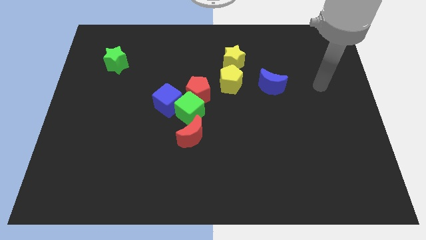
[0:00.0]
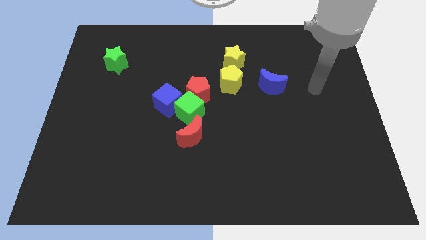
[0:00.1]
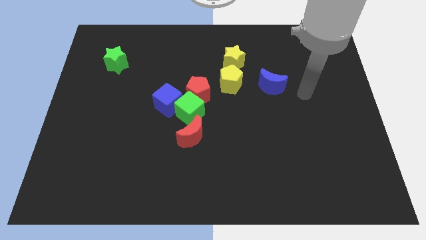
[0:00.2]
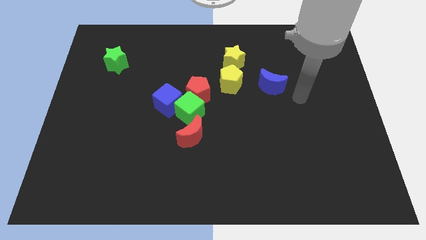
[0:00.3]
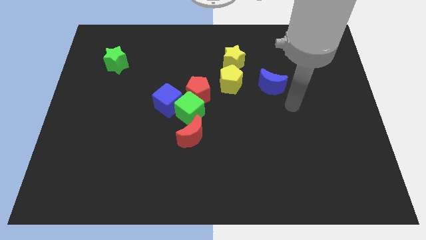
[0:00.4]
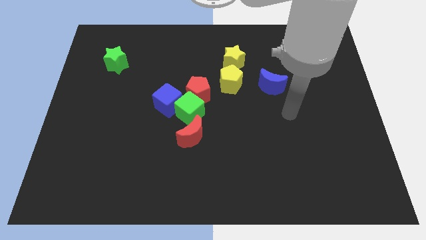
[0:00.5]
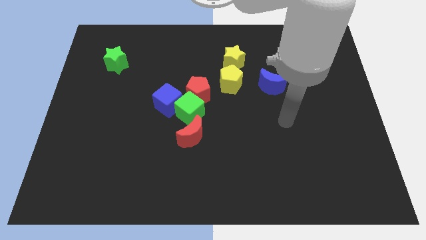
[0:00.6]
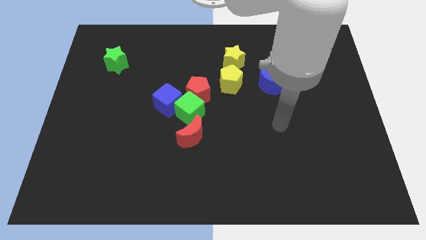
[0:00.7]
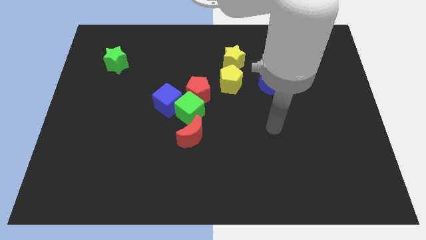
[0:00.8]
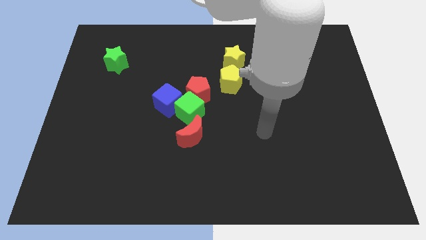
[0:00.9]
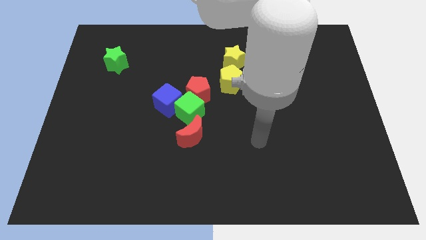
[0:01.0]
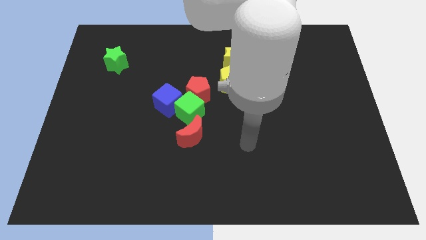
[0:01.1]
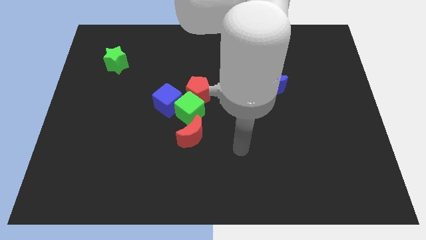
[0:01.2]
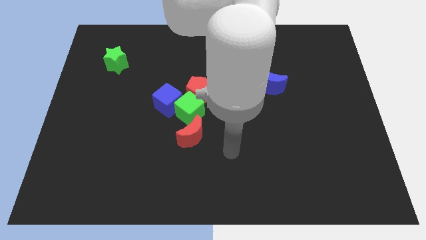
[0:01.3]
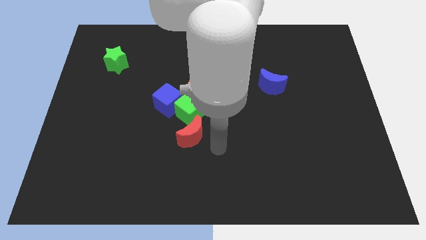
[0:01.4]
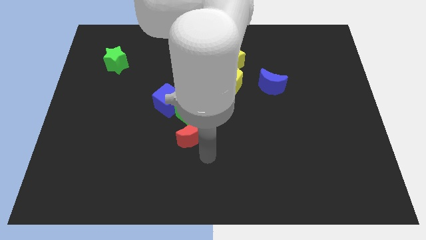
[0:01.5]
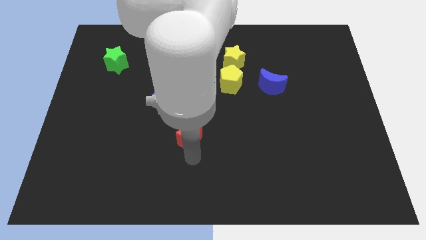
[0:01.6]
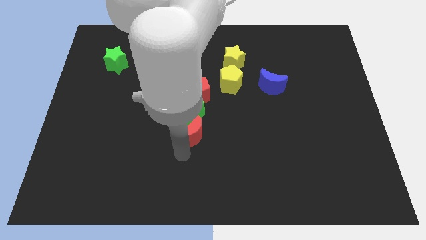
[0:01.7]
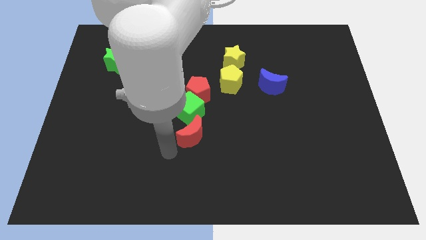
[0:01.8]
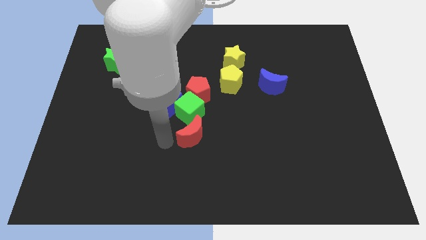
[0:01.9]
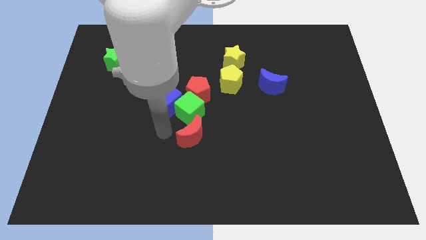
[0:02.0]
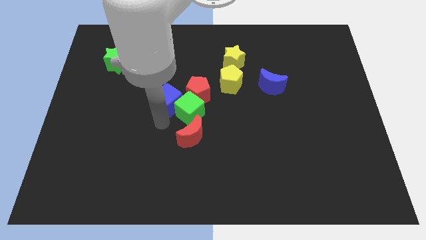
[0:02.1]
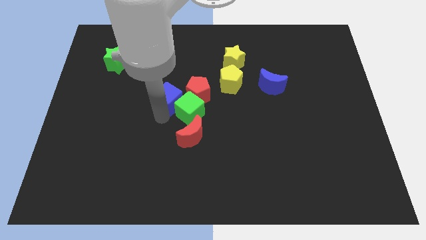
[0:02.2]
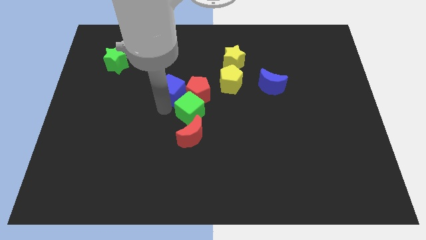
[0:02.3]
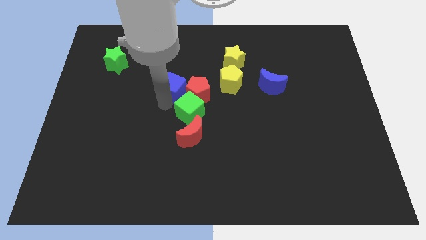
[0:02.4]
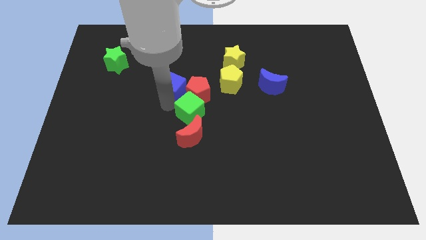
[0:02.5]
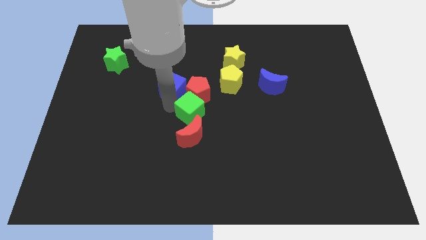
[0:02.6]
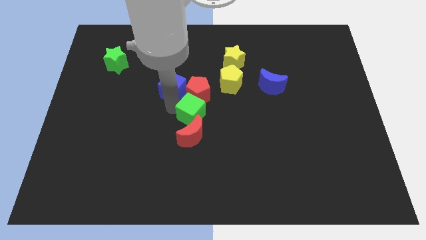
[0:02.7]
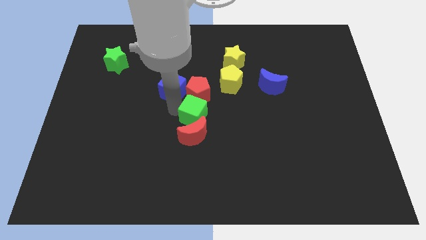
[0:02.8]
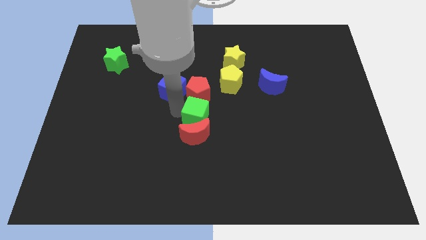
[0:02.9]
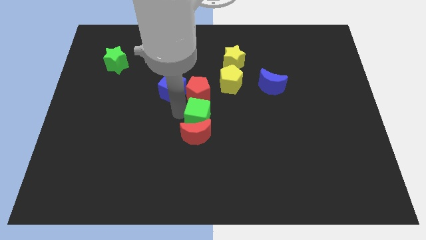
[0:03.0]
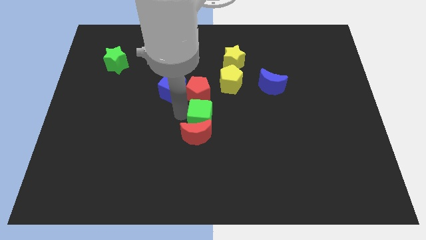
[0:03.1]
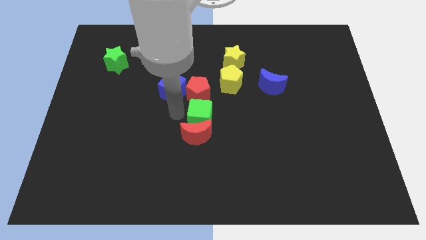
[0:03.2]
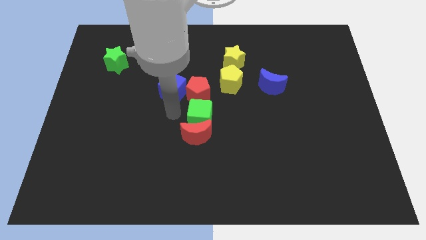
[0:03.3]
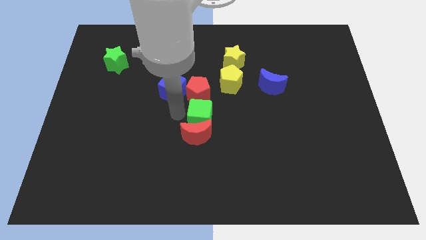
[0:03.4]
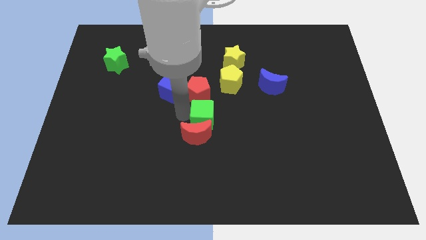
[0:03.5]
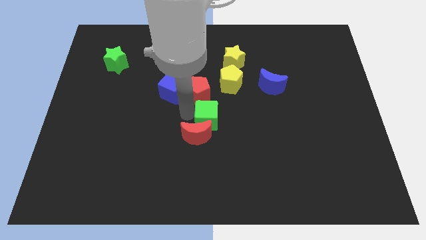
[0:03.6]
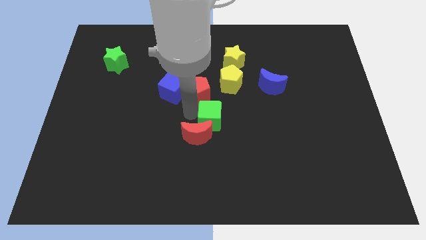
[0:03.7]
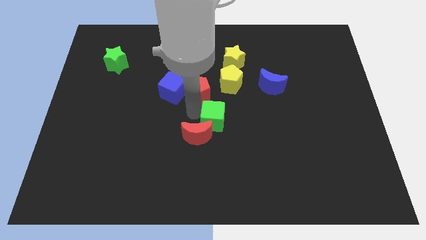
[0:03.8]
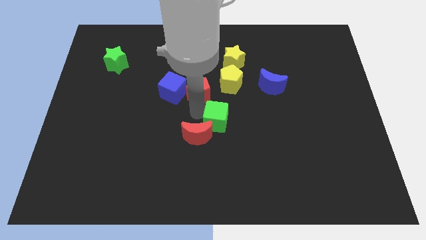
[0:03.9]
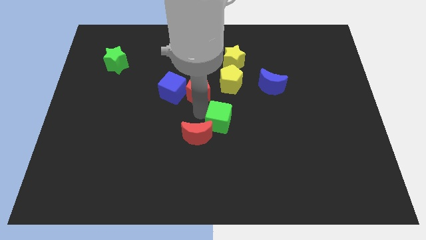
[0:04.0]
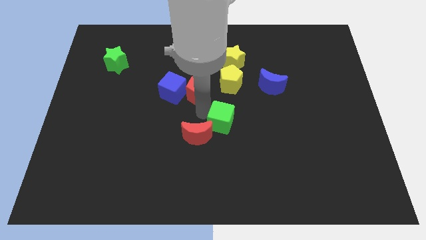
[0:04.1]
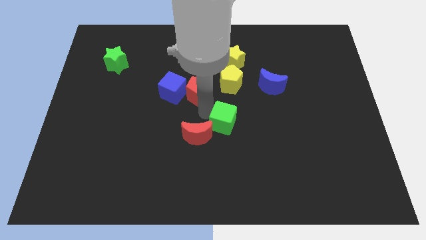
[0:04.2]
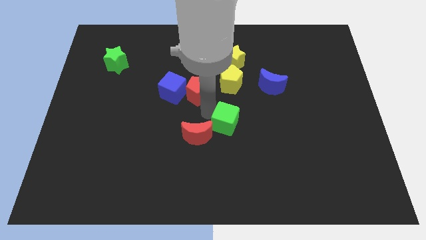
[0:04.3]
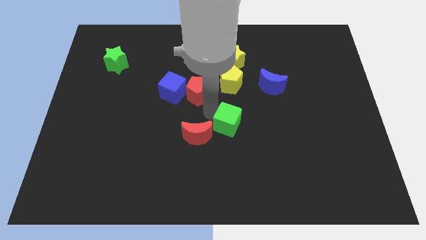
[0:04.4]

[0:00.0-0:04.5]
pull the green cube apart from the group

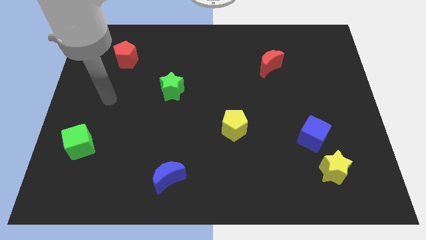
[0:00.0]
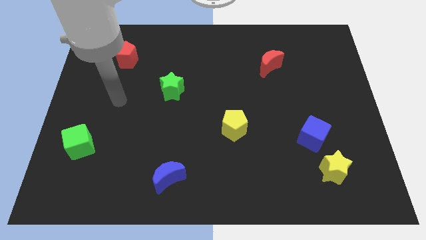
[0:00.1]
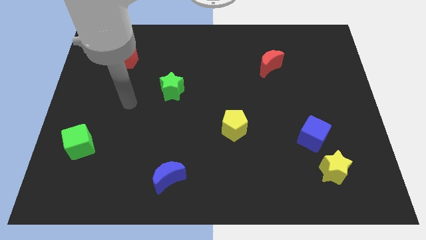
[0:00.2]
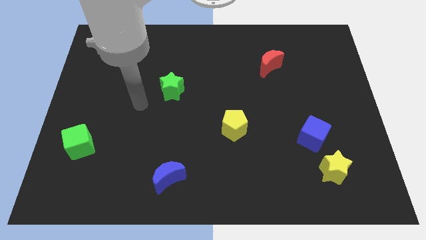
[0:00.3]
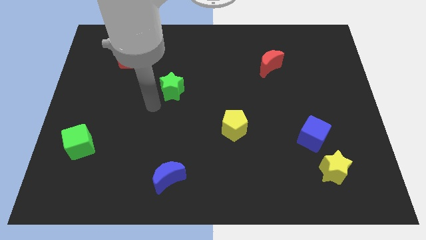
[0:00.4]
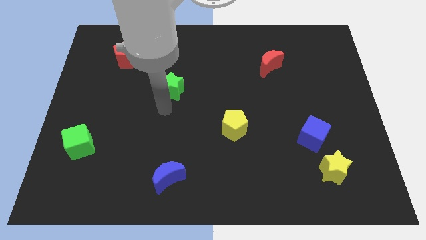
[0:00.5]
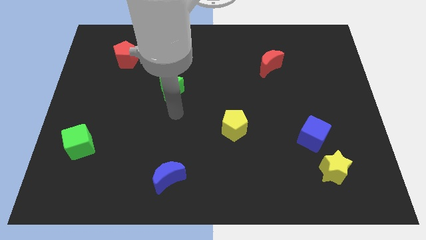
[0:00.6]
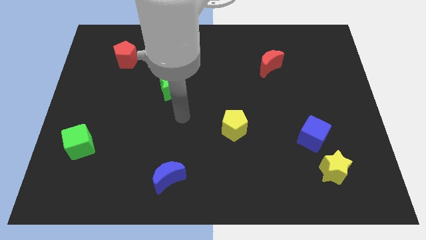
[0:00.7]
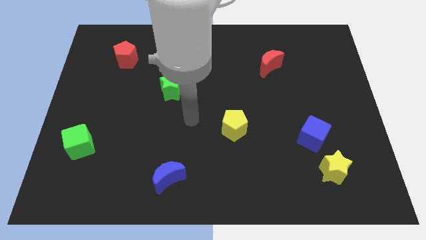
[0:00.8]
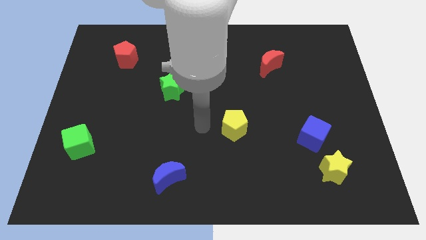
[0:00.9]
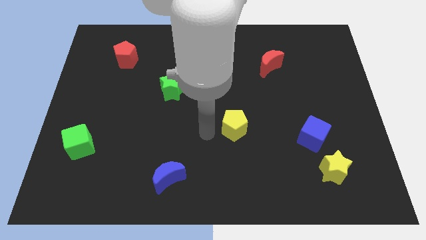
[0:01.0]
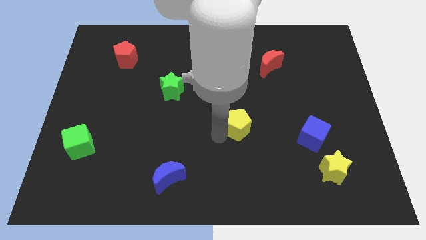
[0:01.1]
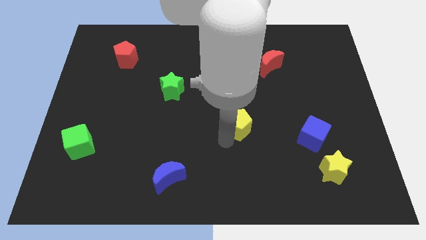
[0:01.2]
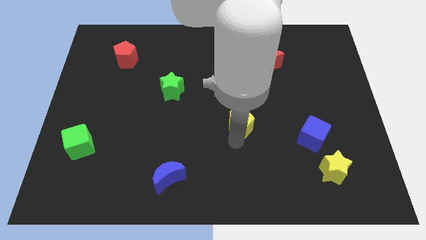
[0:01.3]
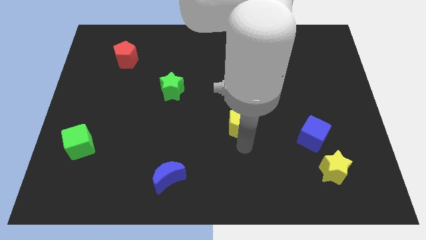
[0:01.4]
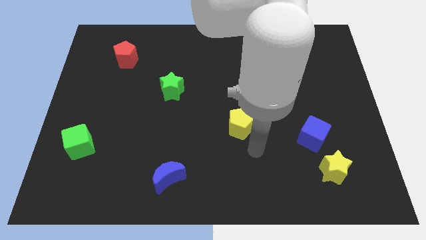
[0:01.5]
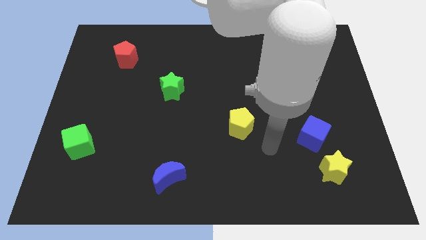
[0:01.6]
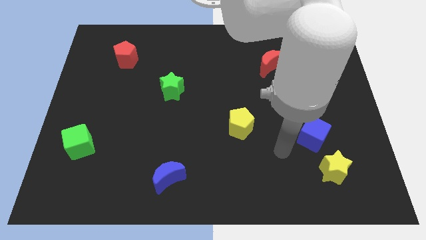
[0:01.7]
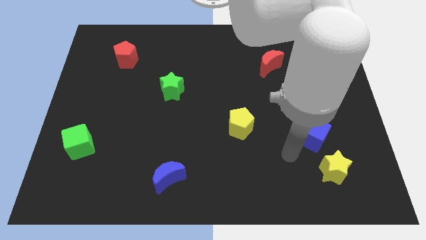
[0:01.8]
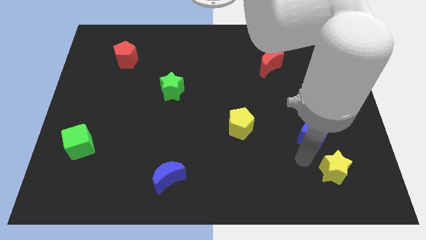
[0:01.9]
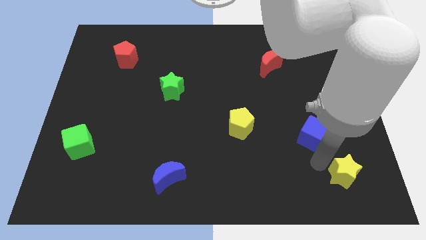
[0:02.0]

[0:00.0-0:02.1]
pull the blue cube apart from the yellow star

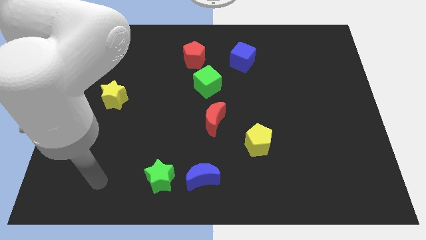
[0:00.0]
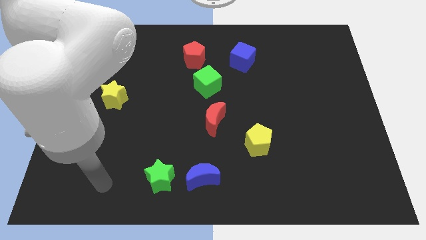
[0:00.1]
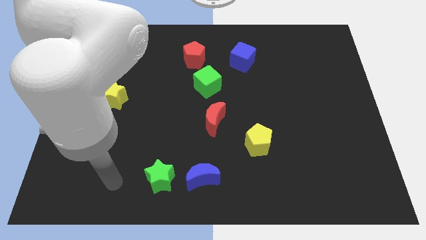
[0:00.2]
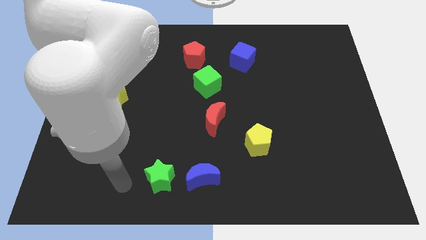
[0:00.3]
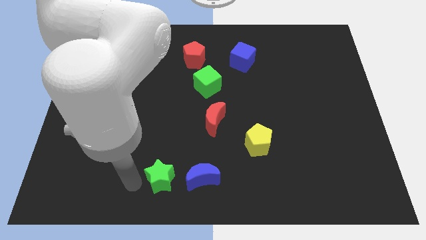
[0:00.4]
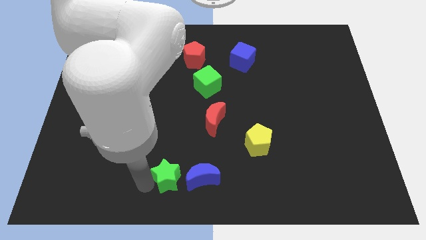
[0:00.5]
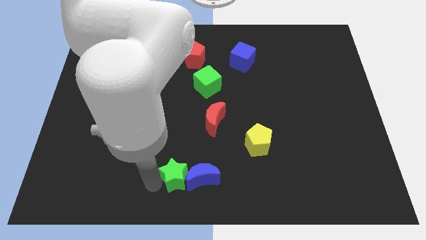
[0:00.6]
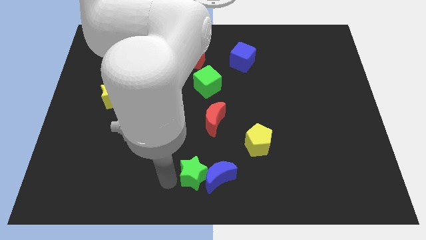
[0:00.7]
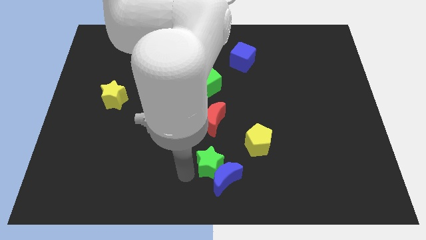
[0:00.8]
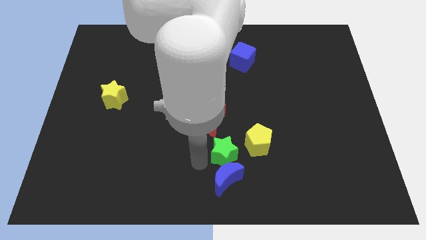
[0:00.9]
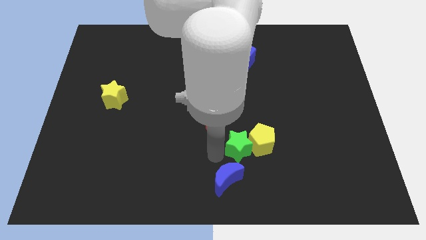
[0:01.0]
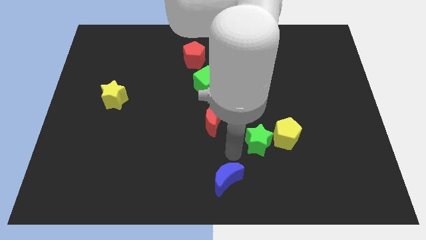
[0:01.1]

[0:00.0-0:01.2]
move the blue moon away from the green star

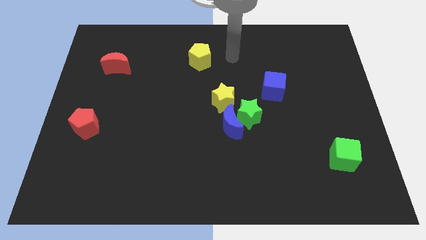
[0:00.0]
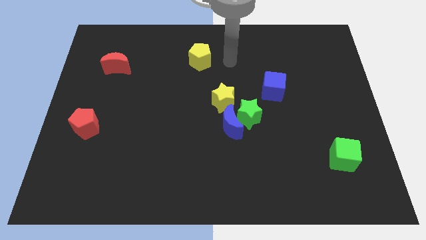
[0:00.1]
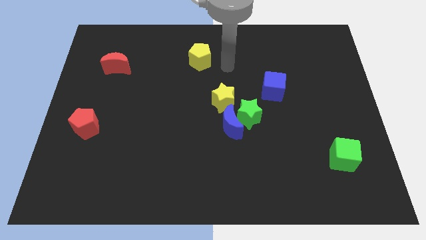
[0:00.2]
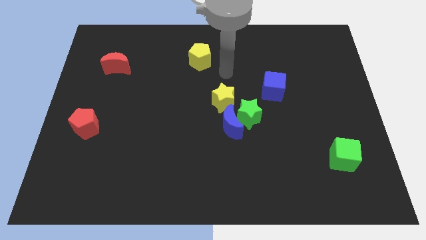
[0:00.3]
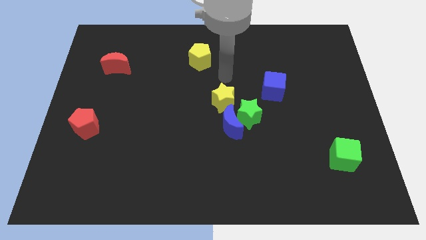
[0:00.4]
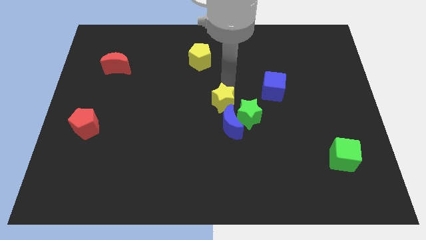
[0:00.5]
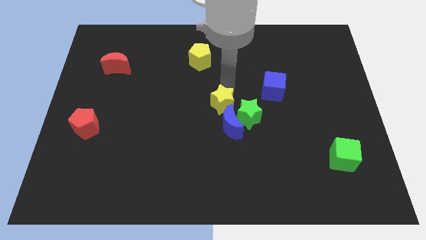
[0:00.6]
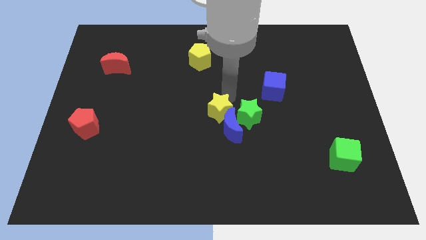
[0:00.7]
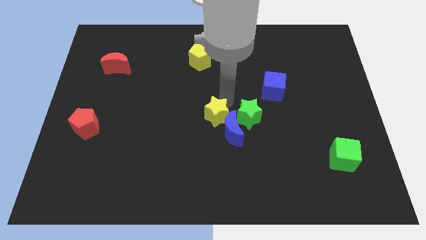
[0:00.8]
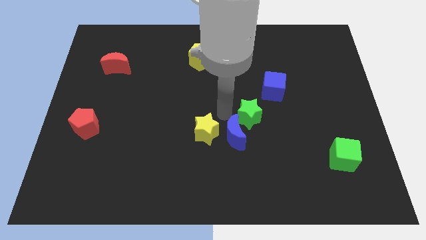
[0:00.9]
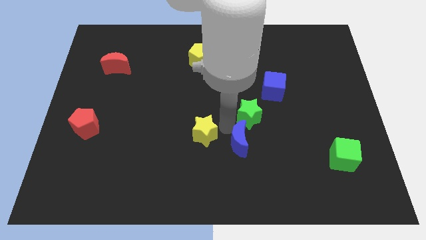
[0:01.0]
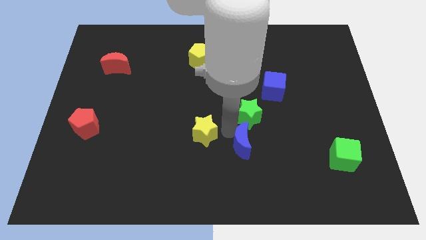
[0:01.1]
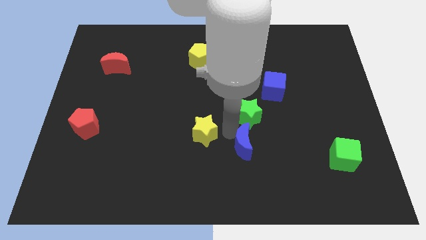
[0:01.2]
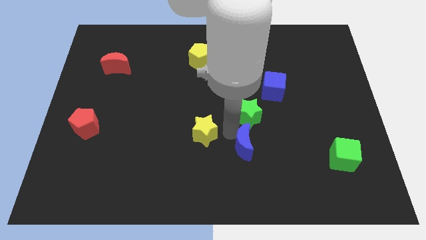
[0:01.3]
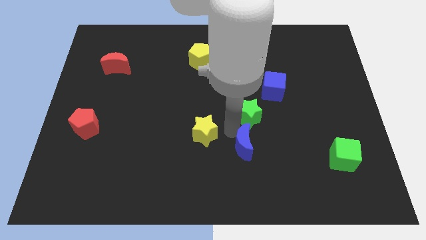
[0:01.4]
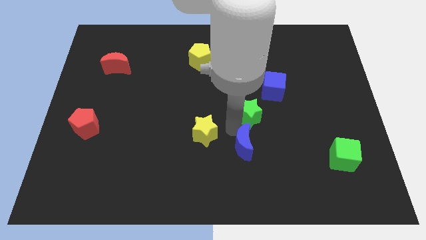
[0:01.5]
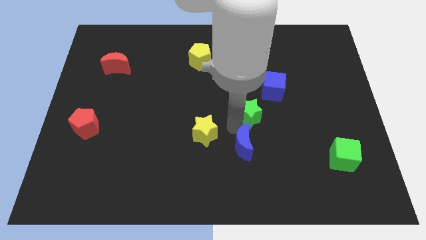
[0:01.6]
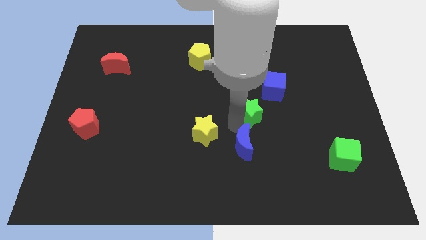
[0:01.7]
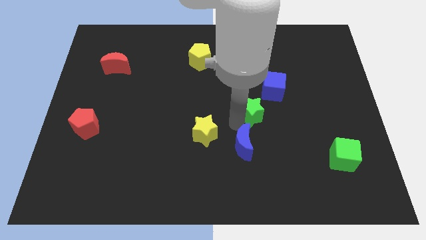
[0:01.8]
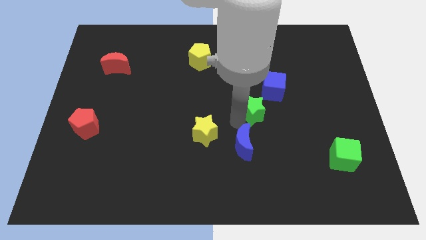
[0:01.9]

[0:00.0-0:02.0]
separate the green star from the blue moon and yellow star
